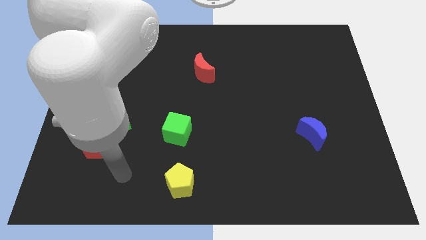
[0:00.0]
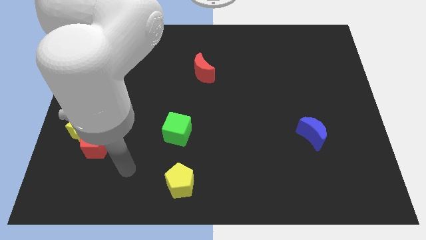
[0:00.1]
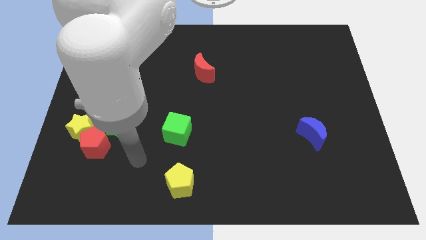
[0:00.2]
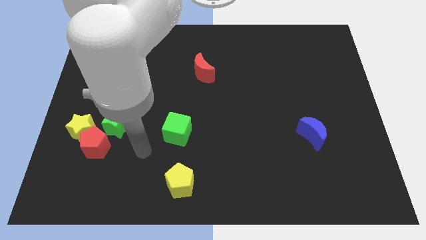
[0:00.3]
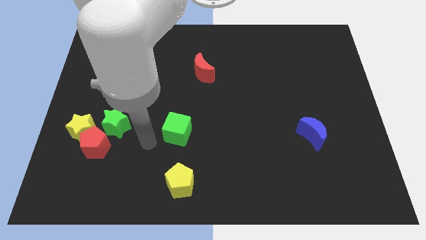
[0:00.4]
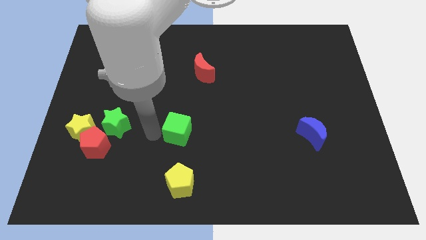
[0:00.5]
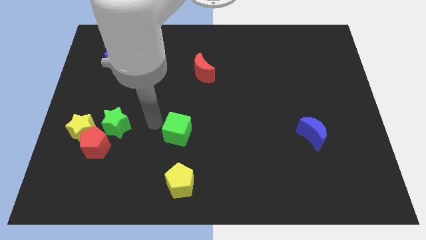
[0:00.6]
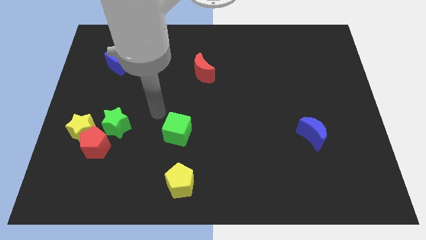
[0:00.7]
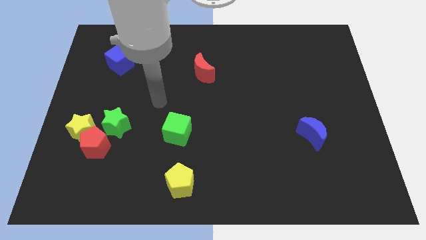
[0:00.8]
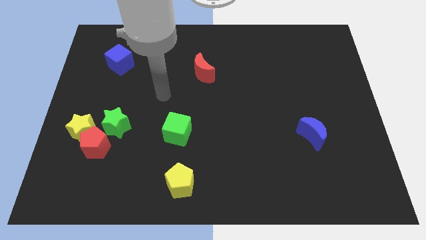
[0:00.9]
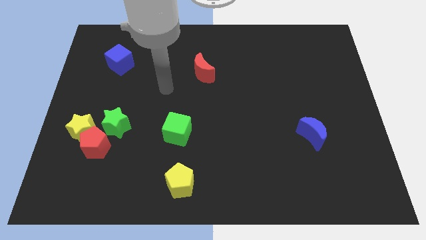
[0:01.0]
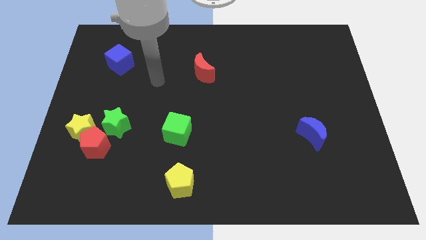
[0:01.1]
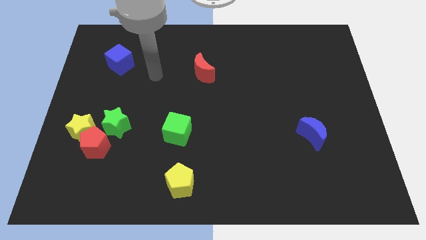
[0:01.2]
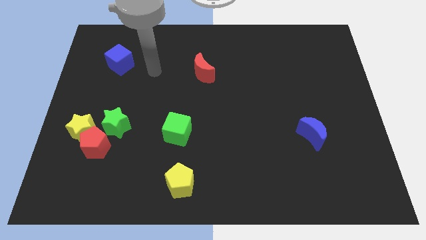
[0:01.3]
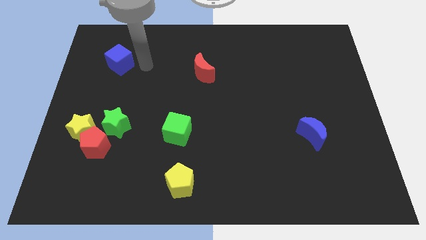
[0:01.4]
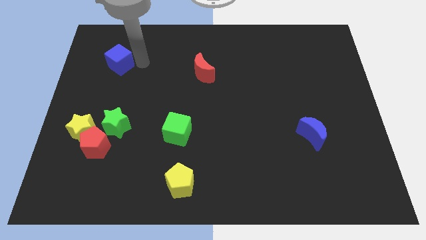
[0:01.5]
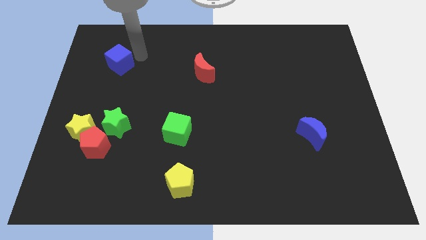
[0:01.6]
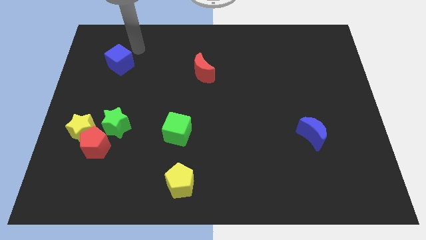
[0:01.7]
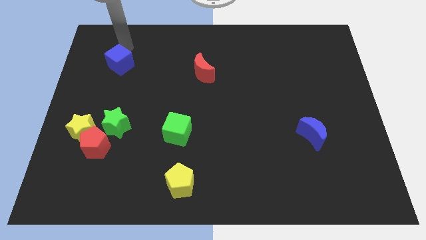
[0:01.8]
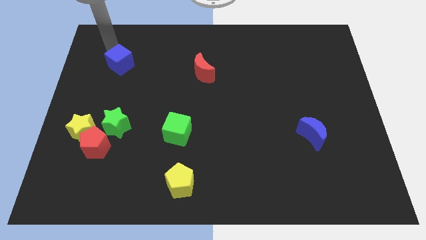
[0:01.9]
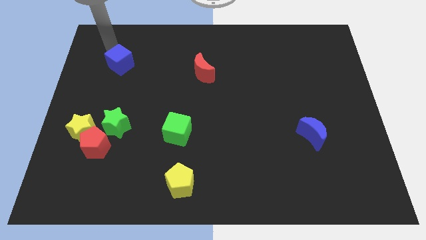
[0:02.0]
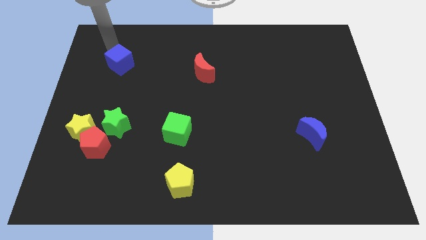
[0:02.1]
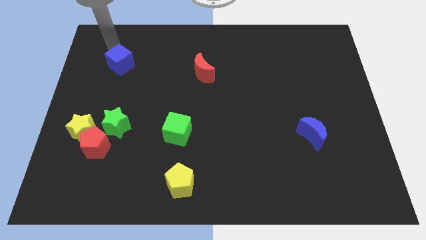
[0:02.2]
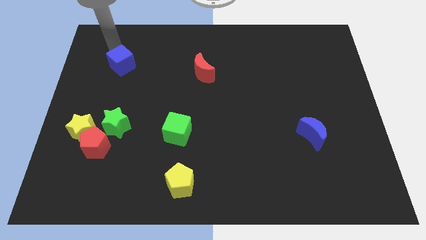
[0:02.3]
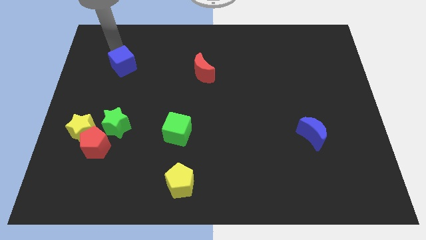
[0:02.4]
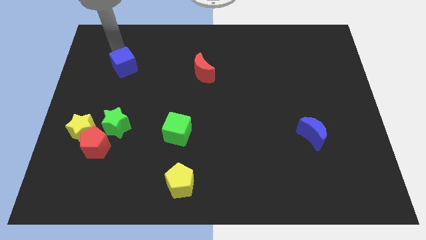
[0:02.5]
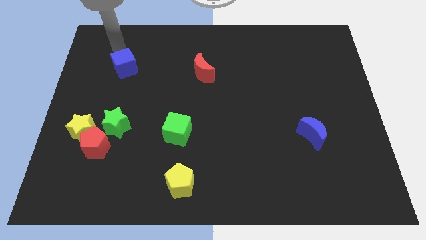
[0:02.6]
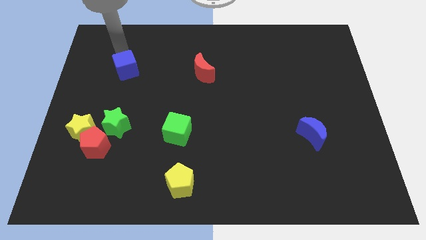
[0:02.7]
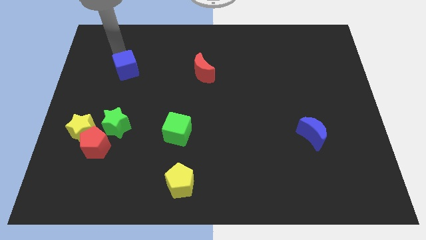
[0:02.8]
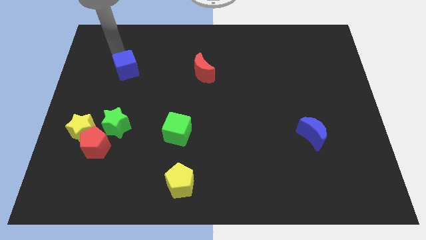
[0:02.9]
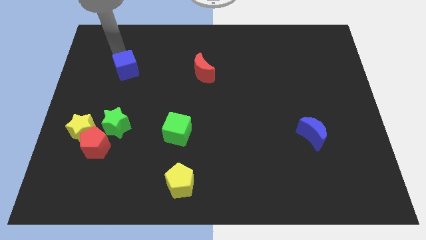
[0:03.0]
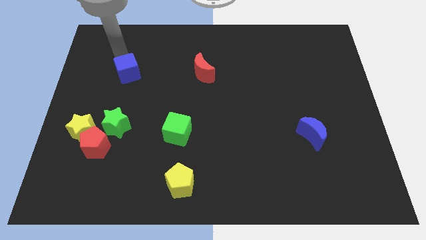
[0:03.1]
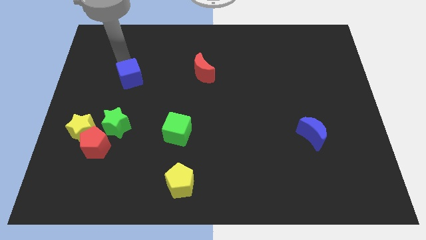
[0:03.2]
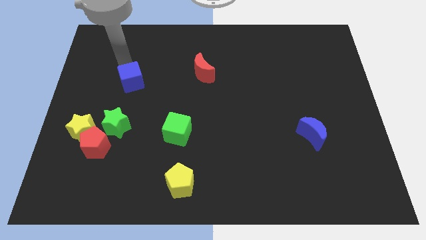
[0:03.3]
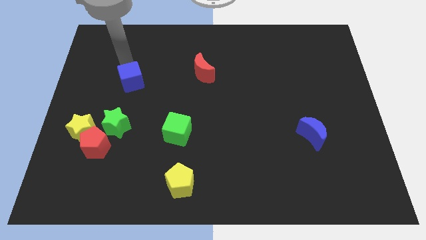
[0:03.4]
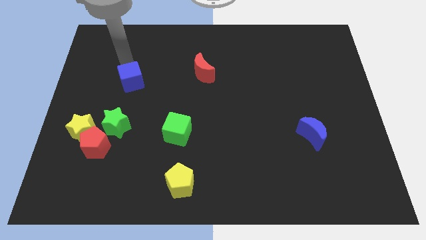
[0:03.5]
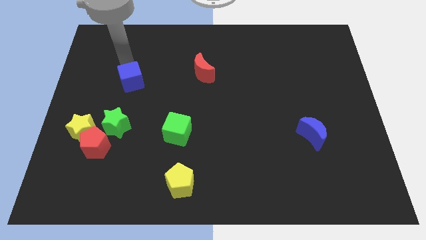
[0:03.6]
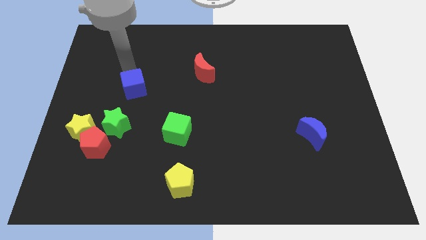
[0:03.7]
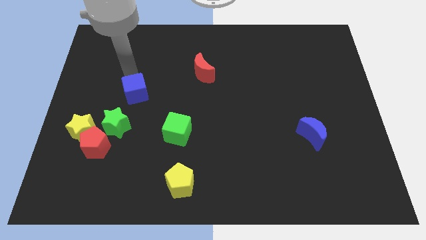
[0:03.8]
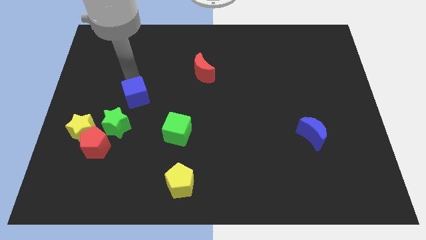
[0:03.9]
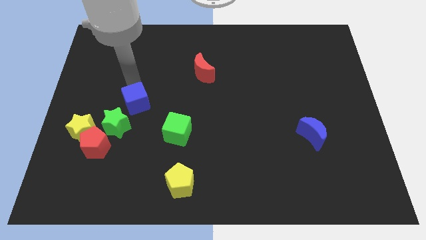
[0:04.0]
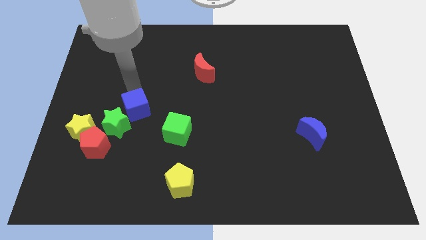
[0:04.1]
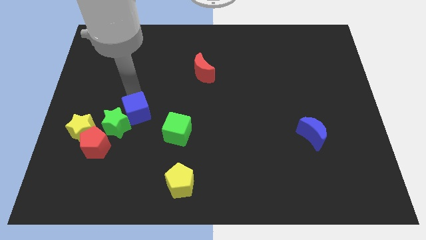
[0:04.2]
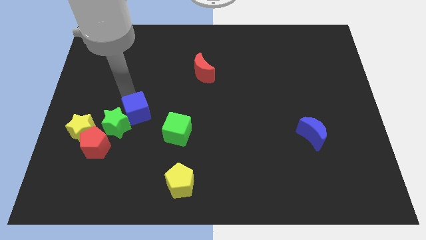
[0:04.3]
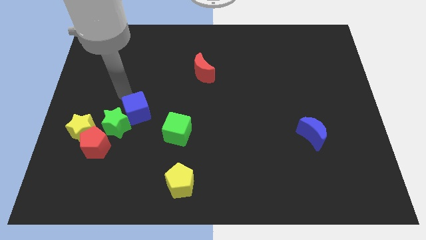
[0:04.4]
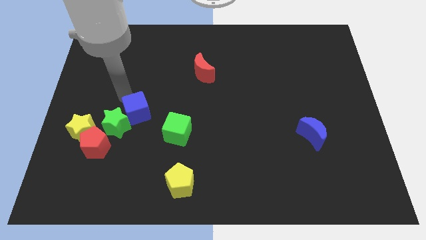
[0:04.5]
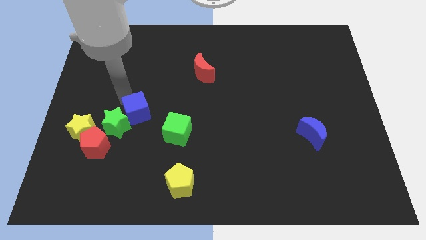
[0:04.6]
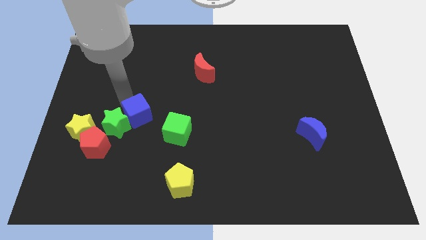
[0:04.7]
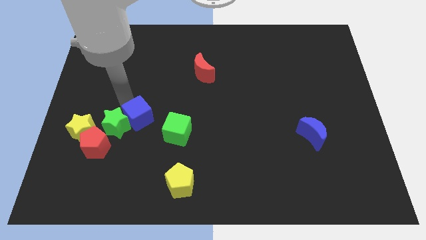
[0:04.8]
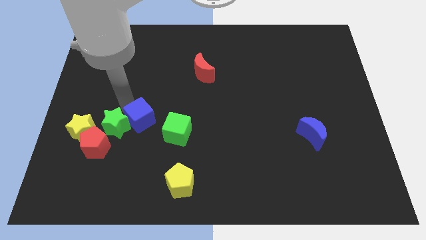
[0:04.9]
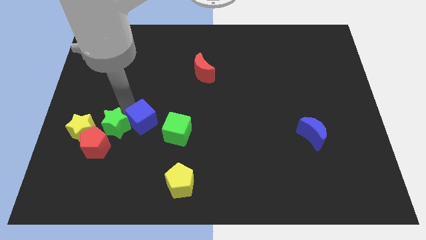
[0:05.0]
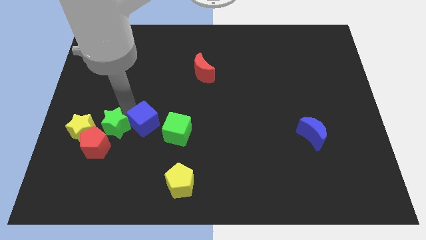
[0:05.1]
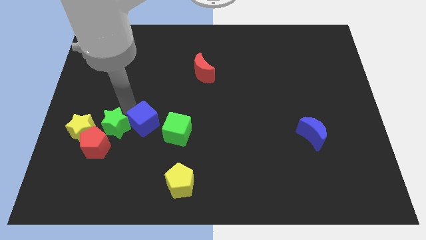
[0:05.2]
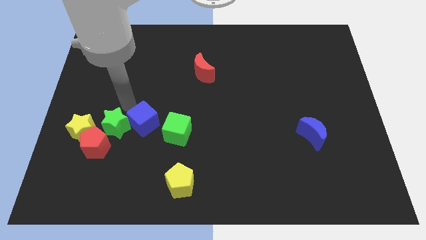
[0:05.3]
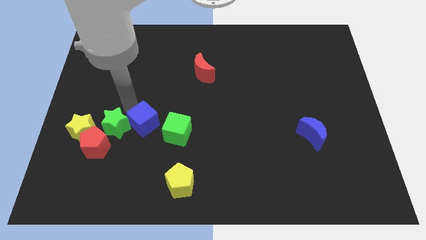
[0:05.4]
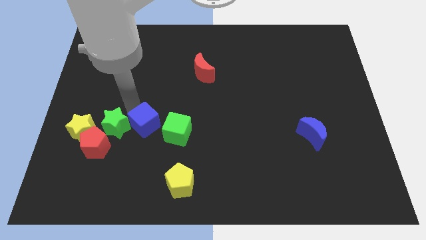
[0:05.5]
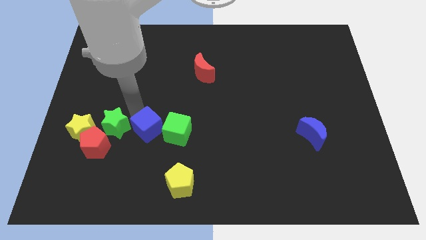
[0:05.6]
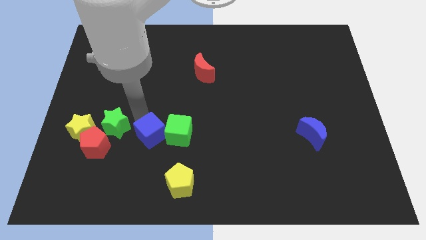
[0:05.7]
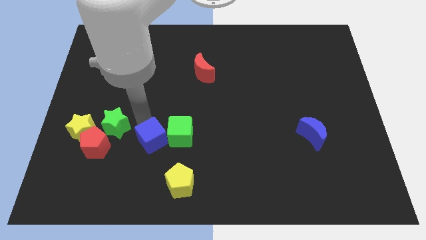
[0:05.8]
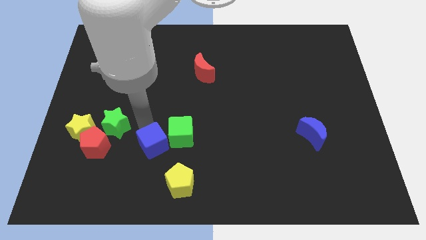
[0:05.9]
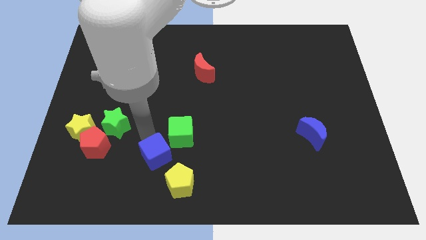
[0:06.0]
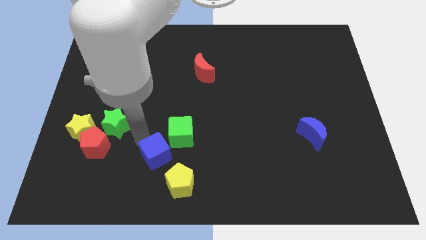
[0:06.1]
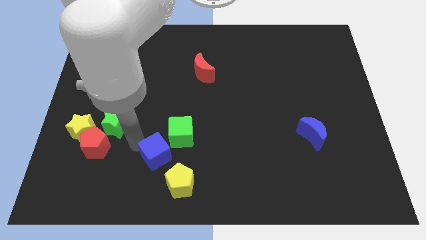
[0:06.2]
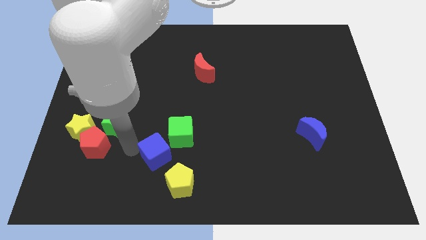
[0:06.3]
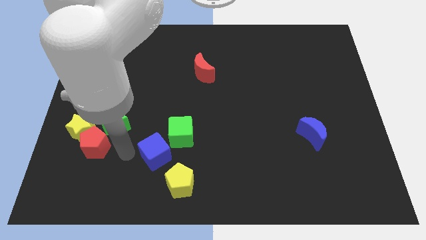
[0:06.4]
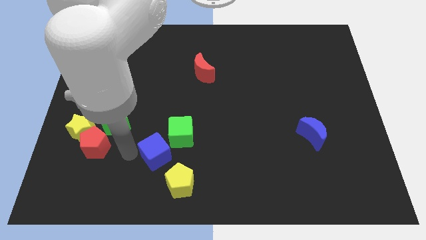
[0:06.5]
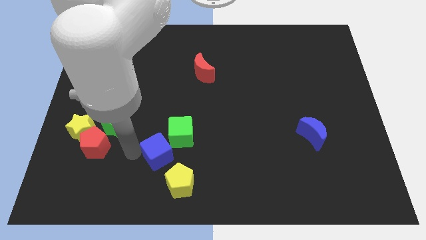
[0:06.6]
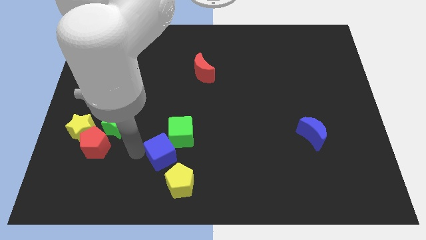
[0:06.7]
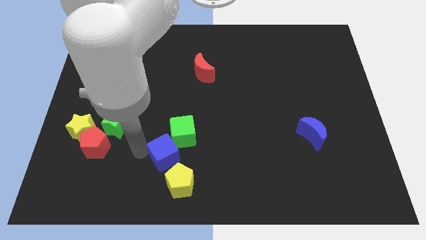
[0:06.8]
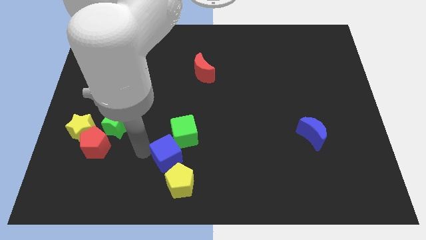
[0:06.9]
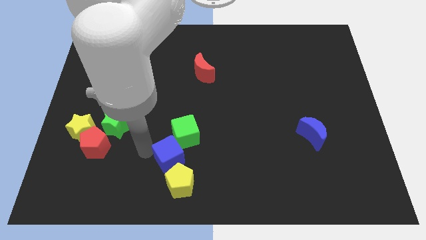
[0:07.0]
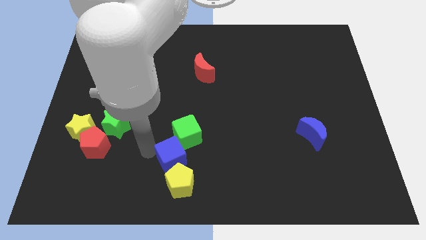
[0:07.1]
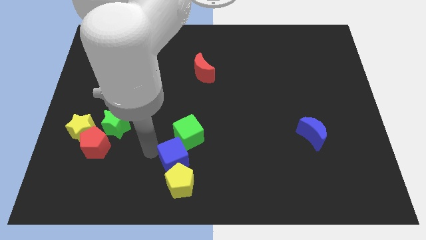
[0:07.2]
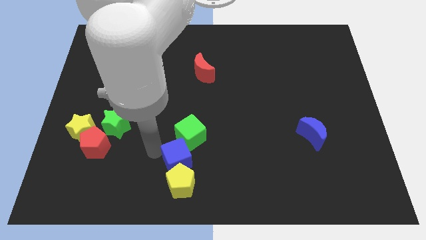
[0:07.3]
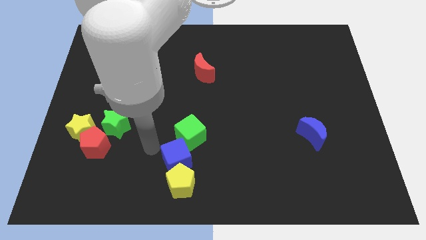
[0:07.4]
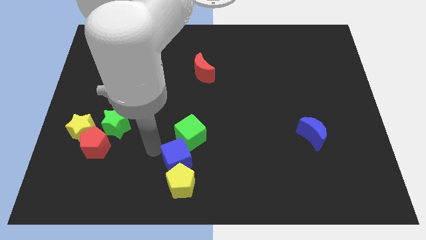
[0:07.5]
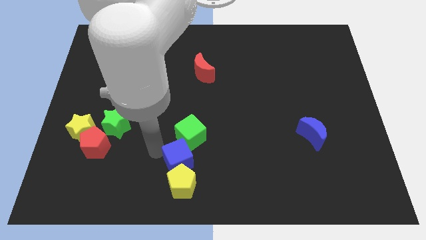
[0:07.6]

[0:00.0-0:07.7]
slide the blue cube to the bottom side
